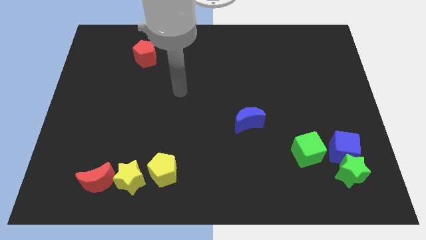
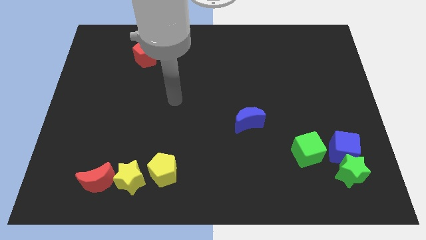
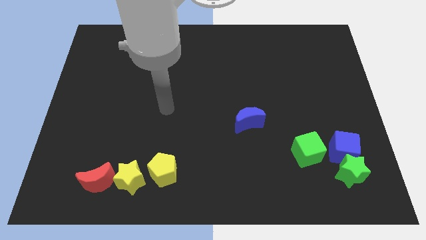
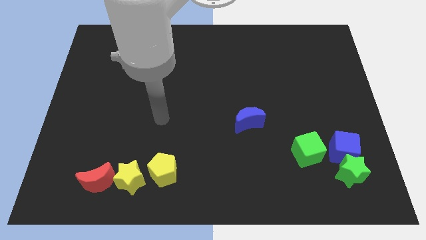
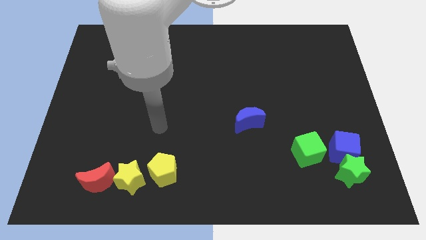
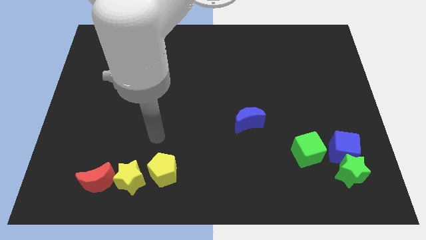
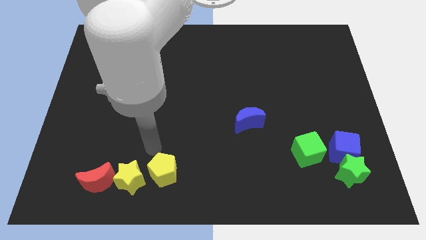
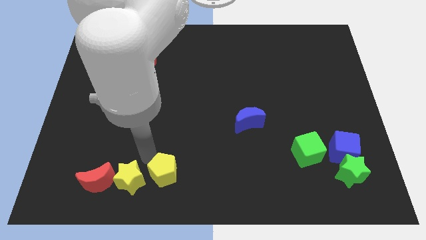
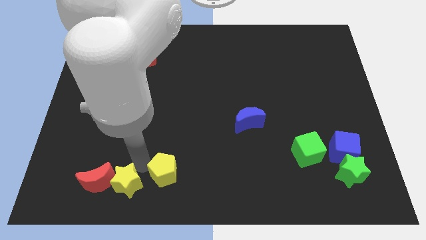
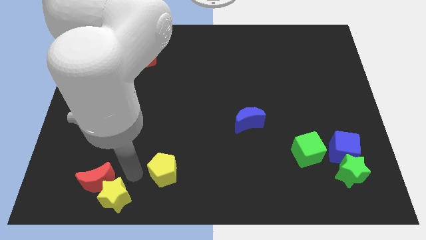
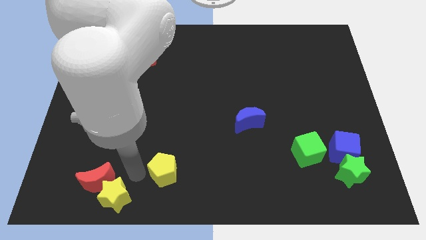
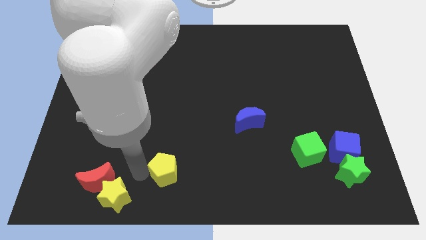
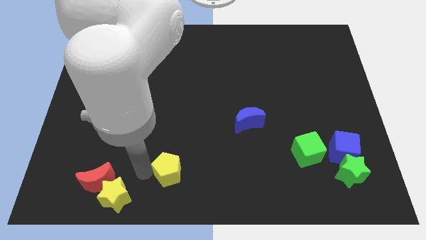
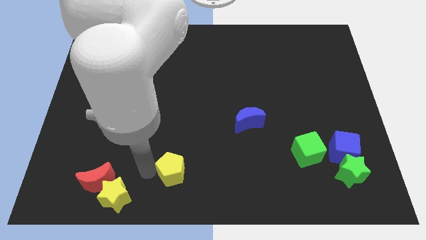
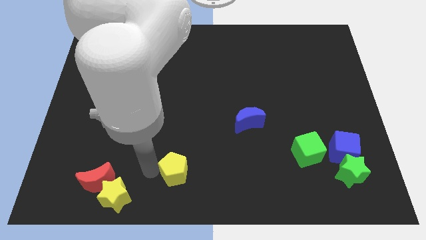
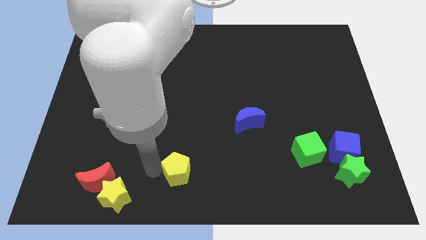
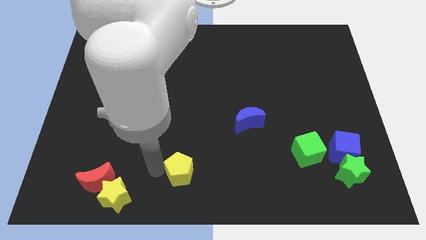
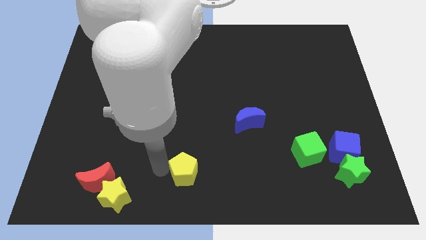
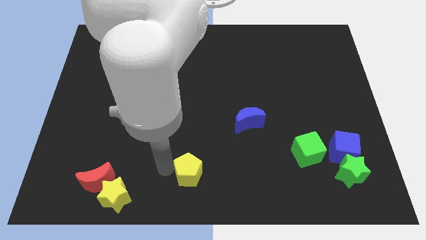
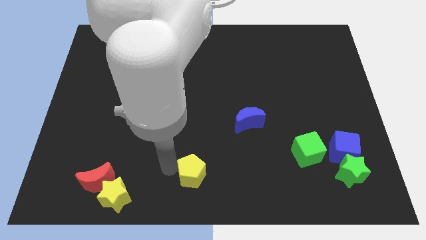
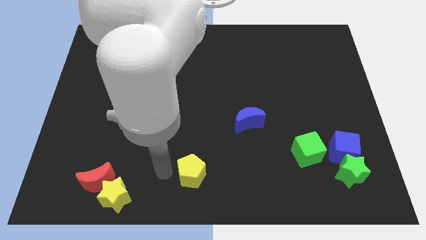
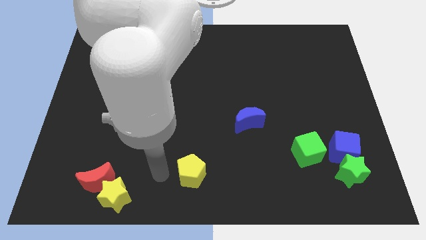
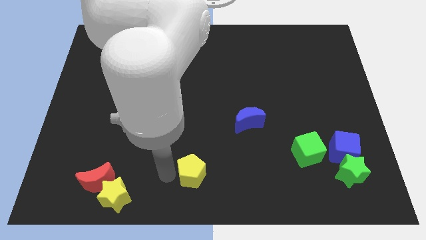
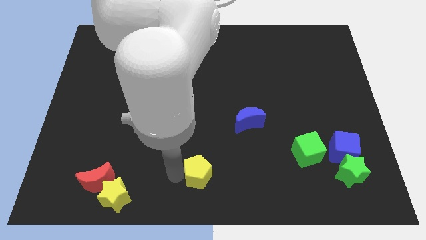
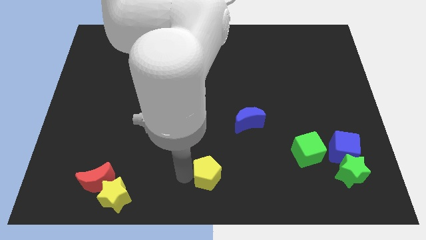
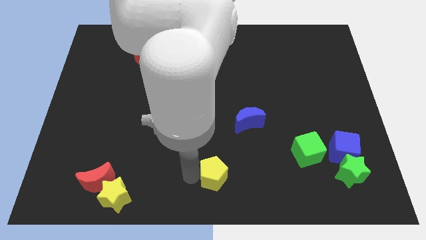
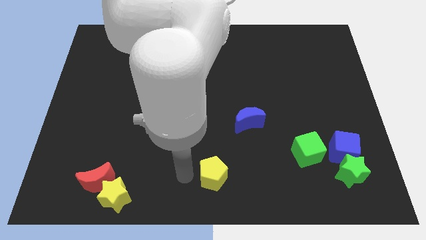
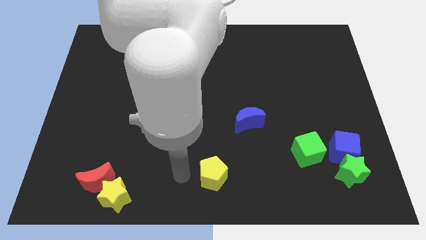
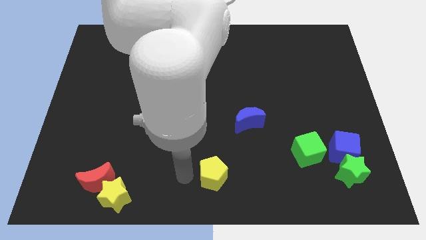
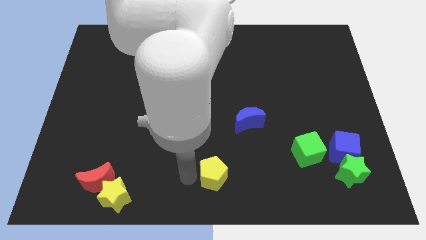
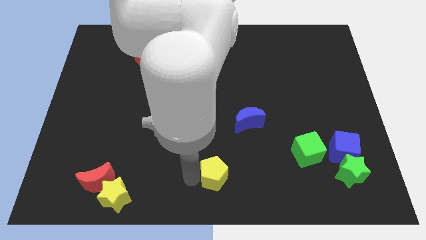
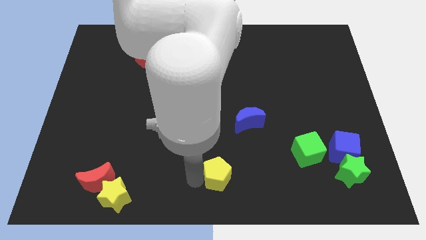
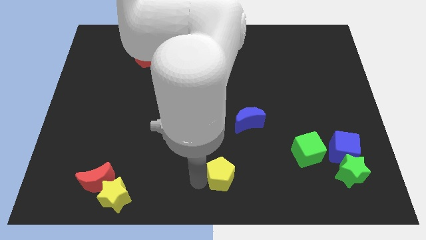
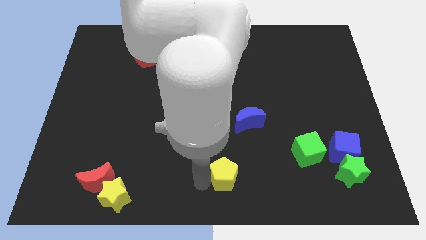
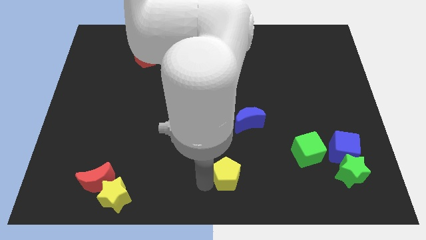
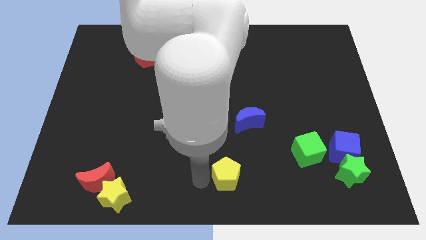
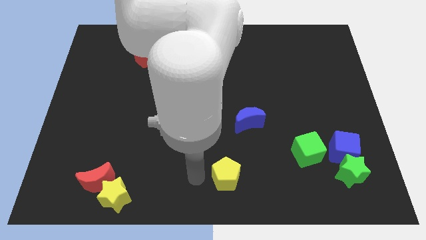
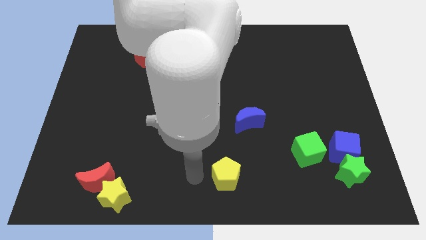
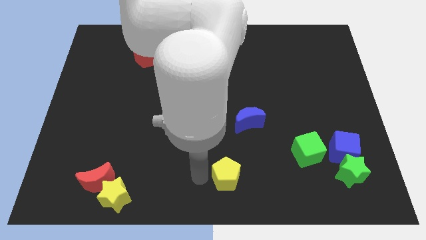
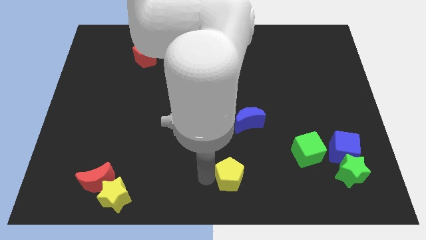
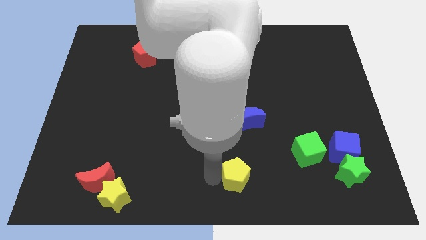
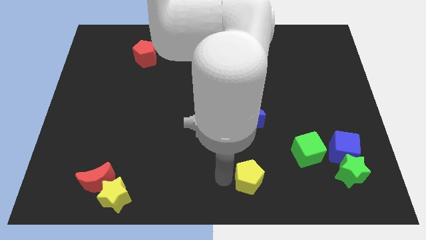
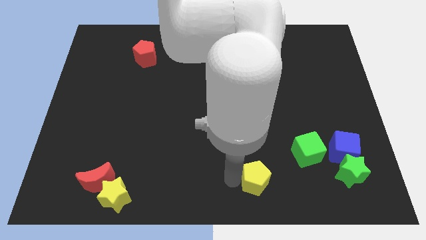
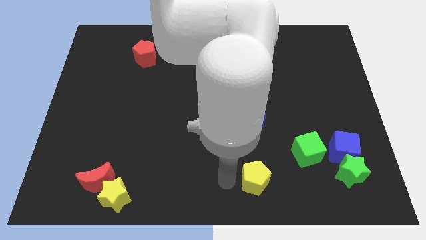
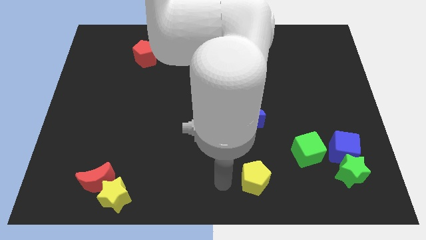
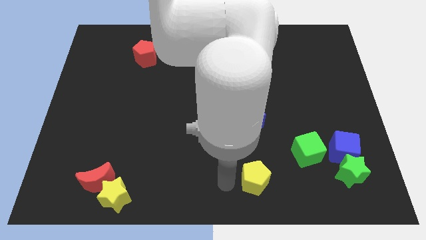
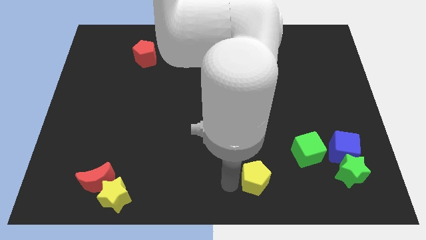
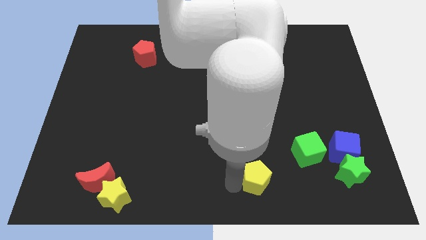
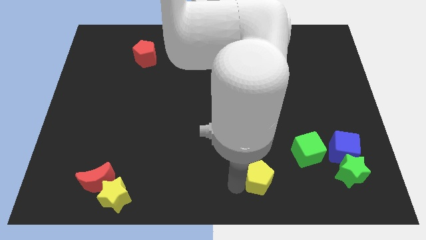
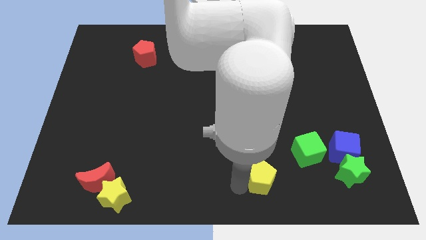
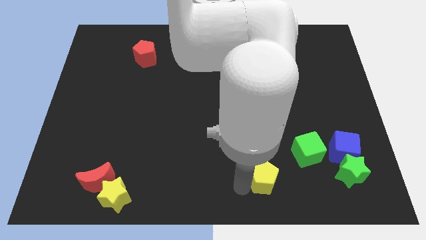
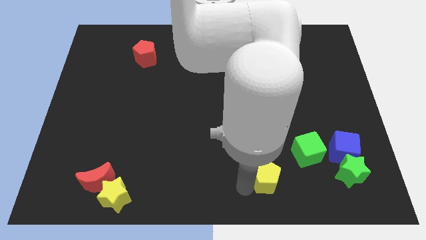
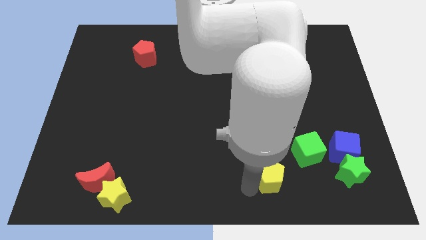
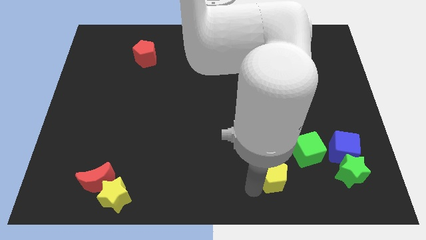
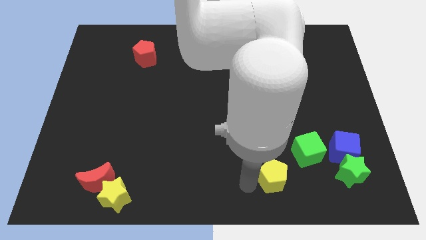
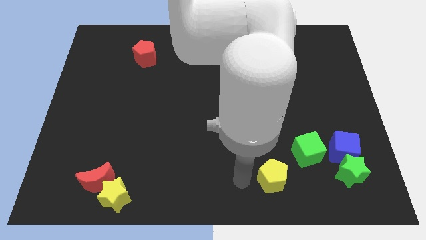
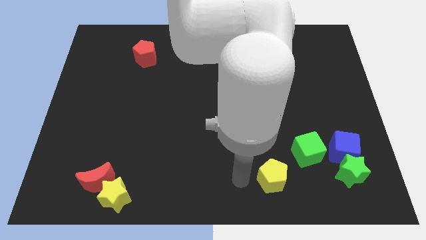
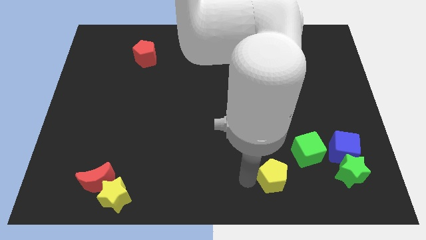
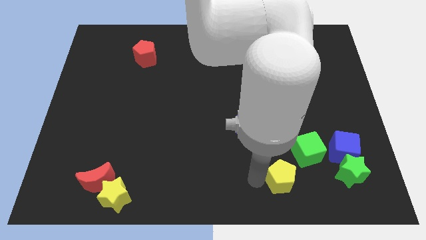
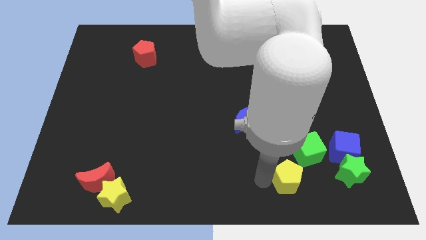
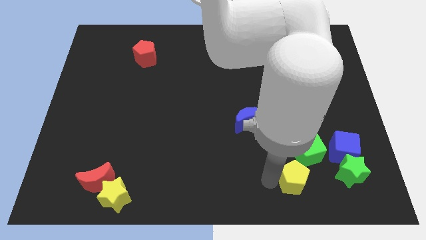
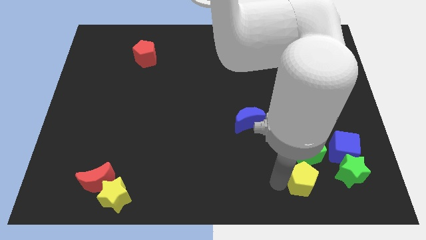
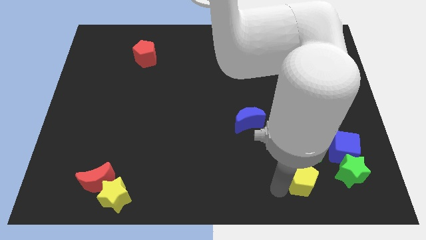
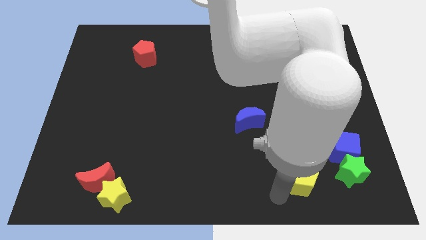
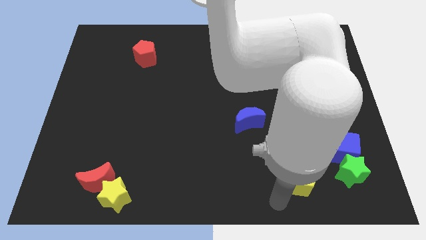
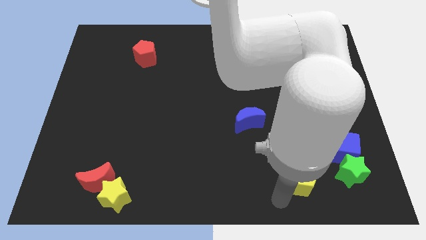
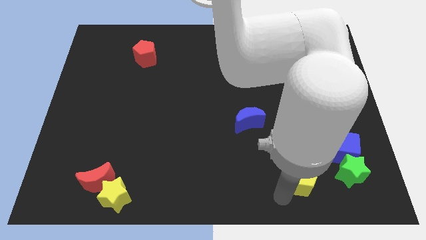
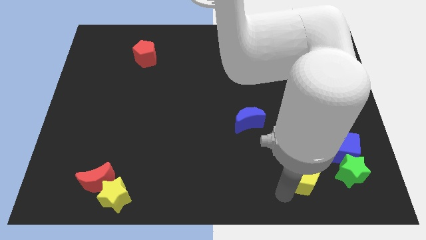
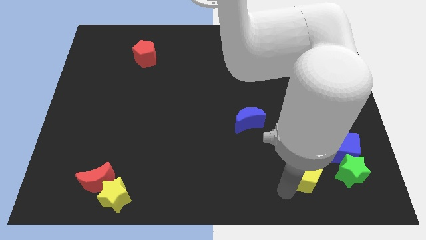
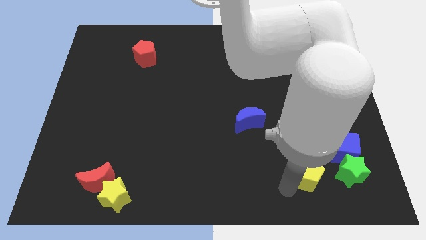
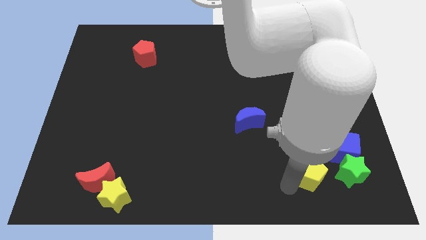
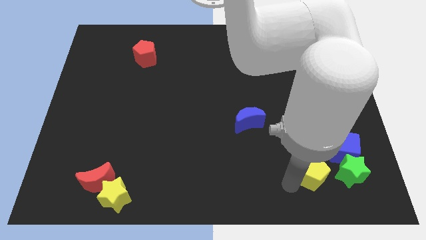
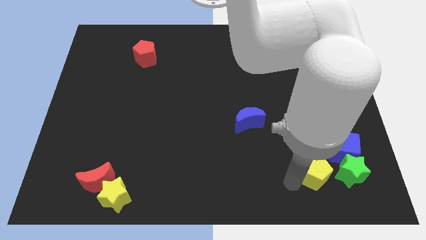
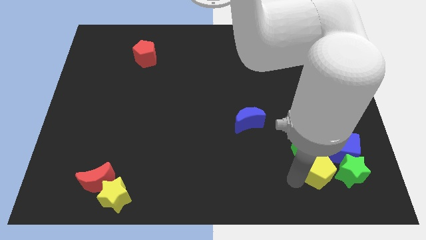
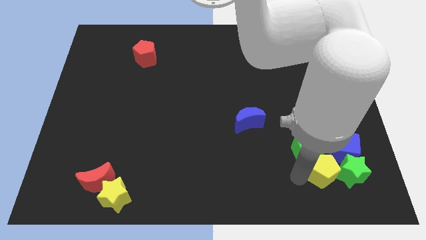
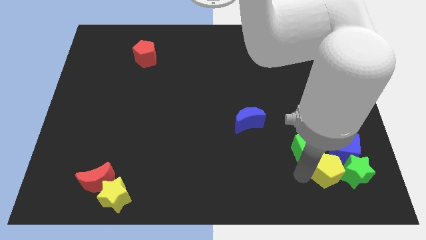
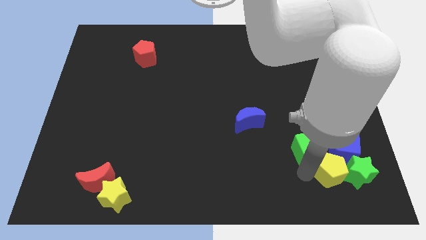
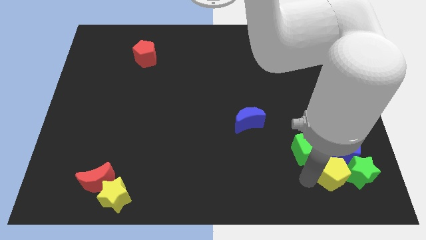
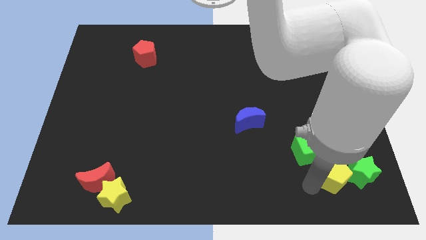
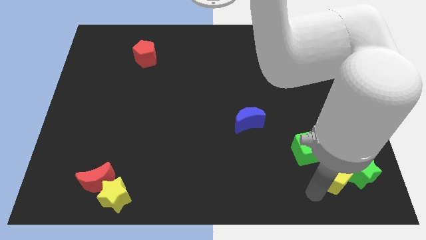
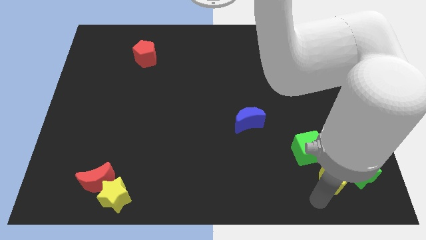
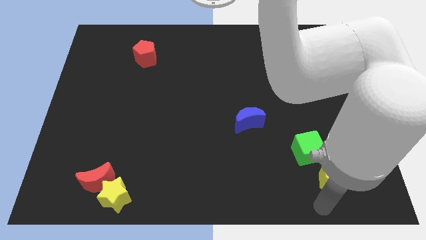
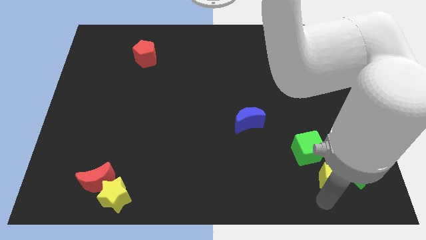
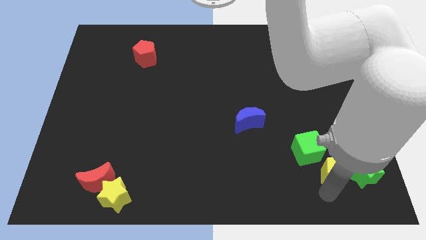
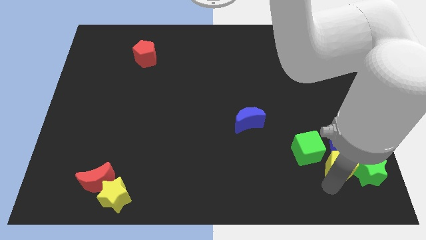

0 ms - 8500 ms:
push the yellow pentagon towards the blue cube
